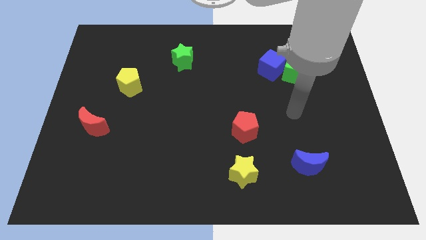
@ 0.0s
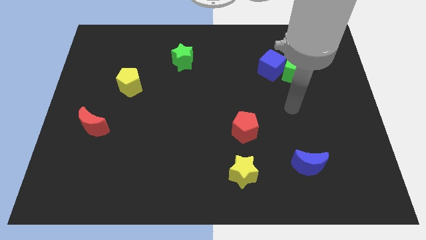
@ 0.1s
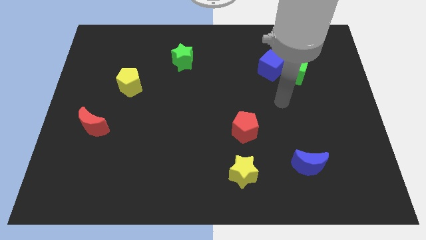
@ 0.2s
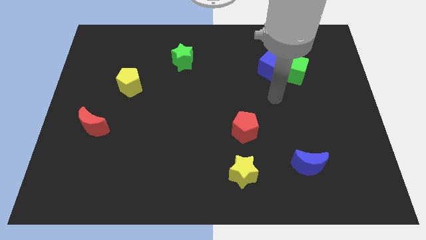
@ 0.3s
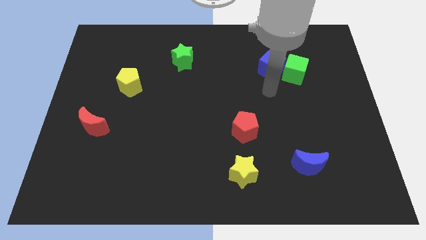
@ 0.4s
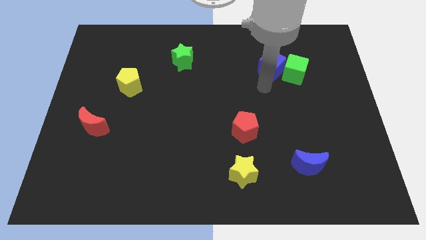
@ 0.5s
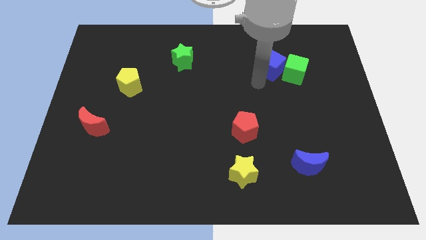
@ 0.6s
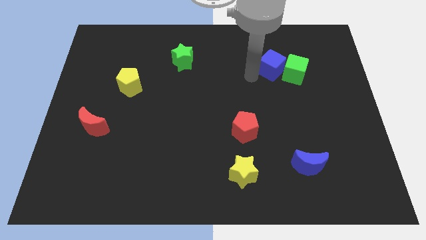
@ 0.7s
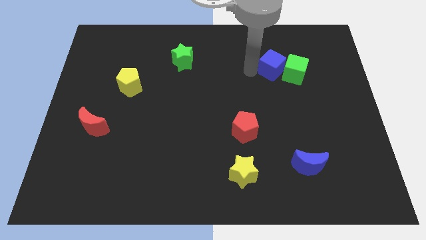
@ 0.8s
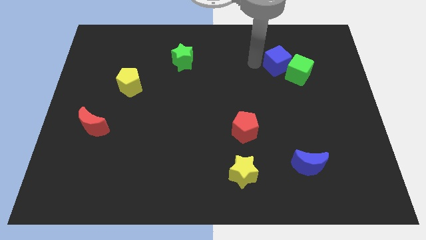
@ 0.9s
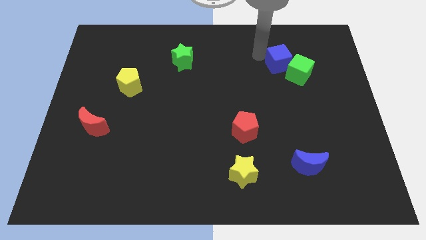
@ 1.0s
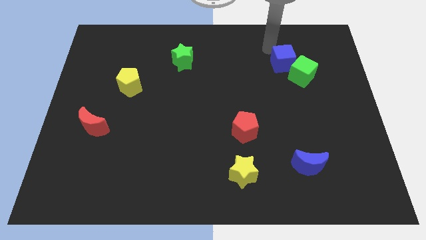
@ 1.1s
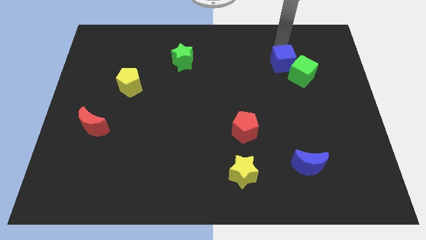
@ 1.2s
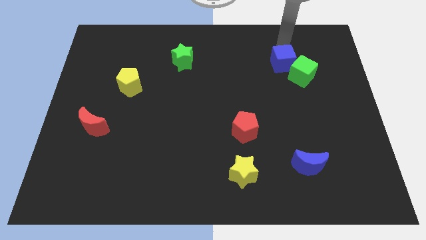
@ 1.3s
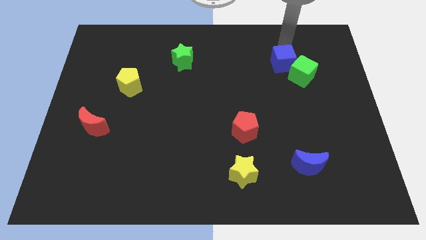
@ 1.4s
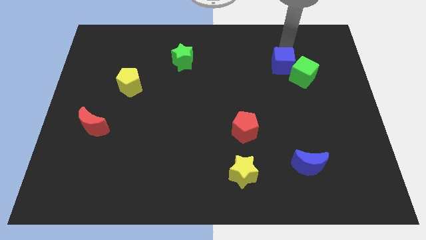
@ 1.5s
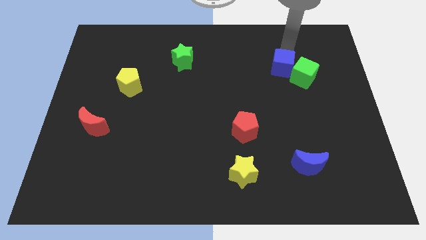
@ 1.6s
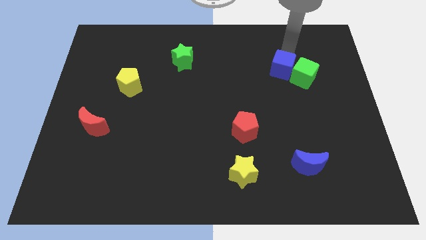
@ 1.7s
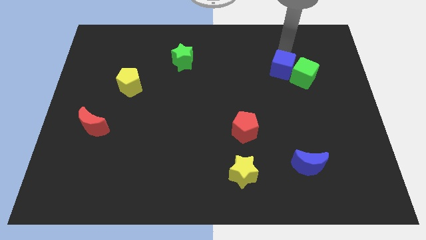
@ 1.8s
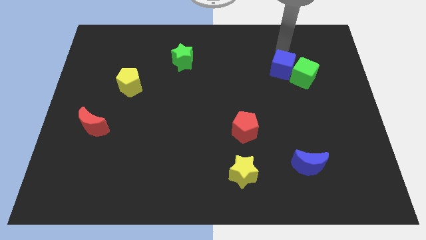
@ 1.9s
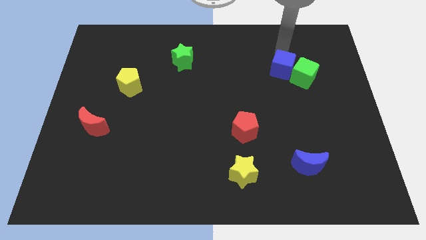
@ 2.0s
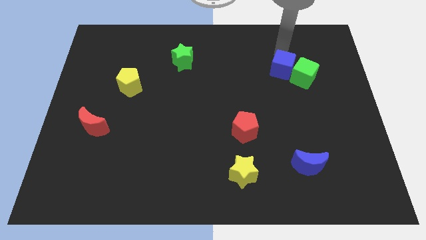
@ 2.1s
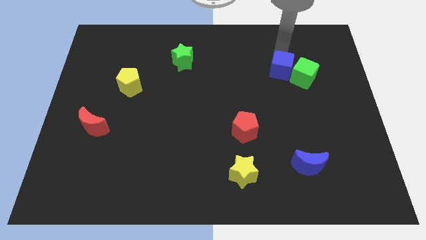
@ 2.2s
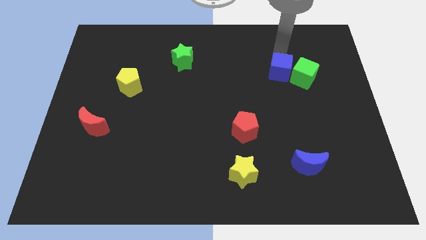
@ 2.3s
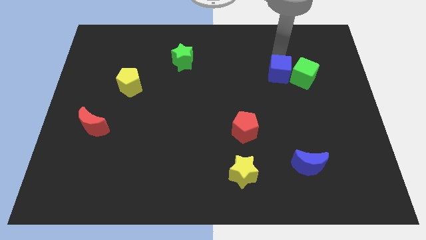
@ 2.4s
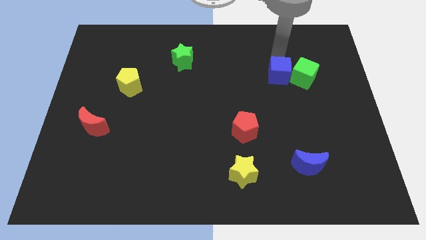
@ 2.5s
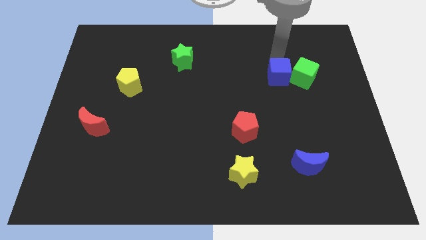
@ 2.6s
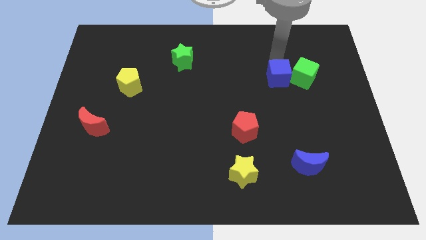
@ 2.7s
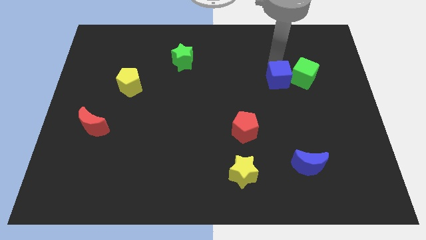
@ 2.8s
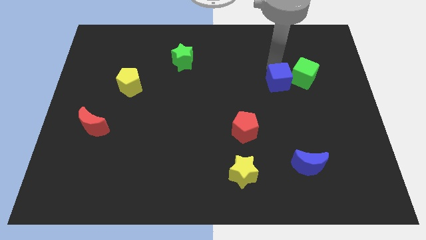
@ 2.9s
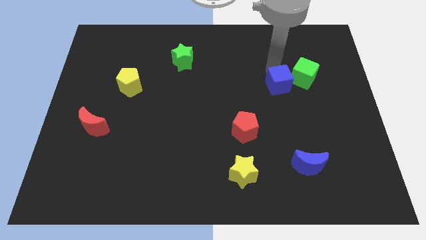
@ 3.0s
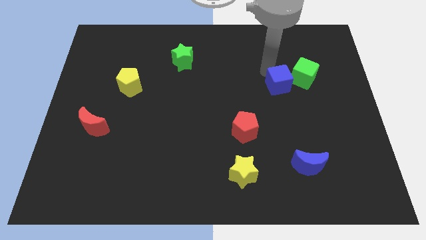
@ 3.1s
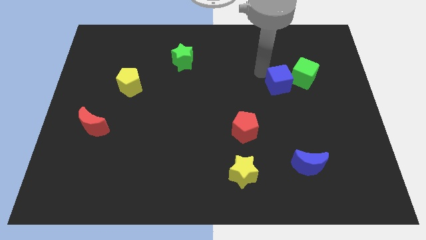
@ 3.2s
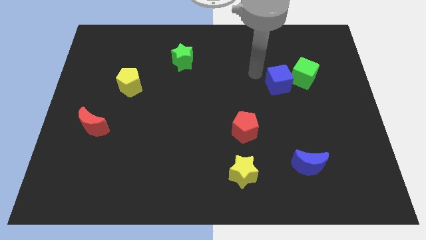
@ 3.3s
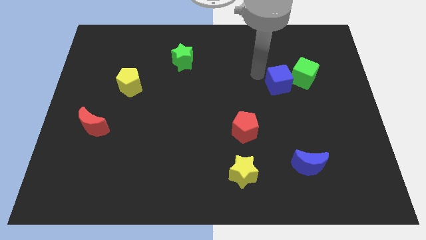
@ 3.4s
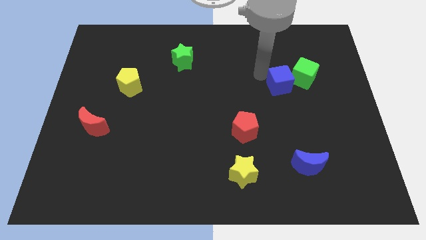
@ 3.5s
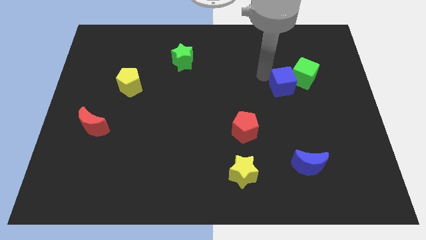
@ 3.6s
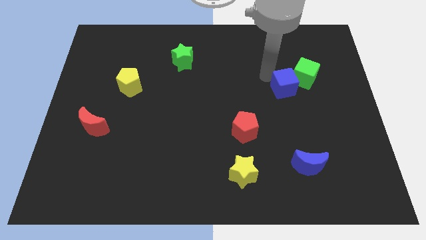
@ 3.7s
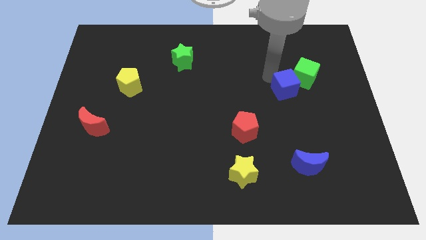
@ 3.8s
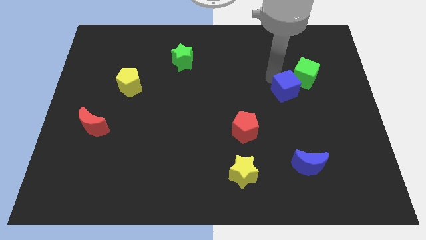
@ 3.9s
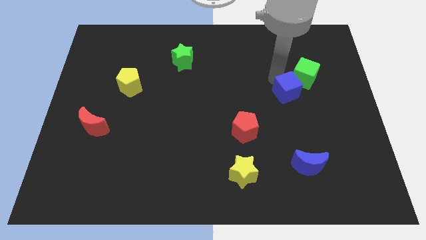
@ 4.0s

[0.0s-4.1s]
move the blue cube a little bit downwards and then right

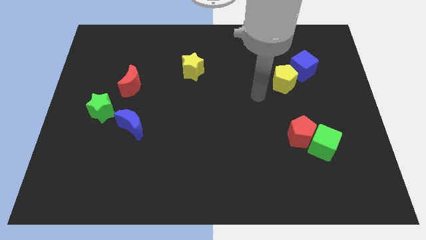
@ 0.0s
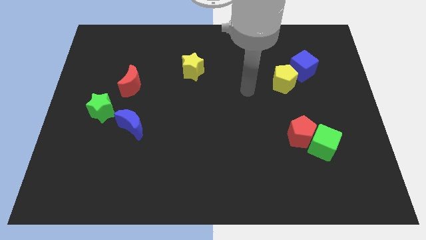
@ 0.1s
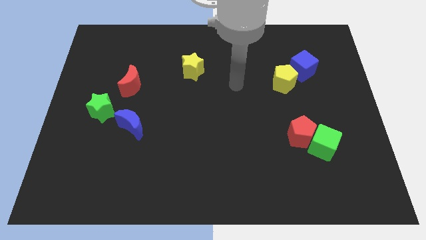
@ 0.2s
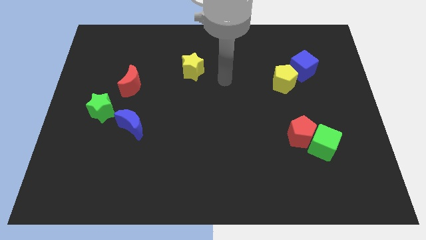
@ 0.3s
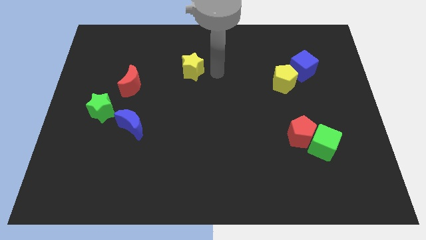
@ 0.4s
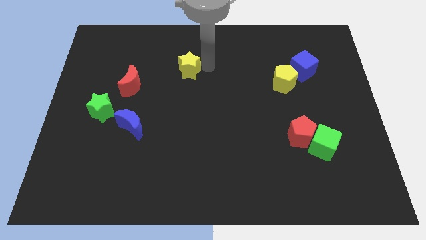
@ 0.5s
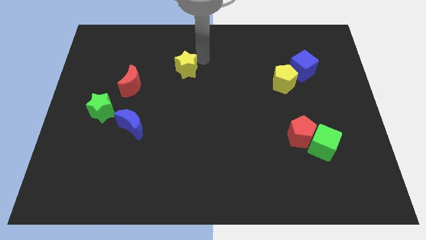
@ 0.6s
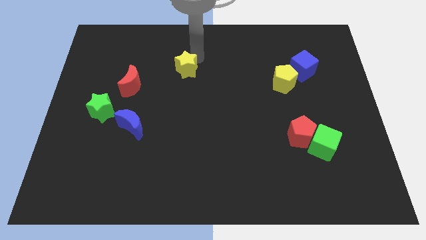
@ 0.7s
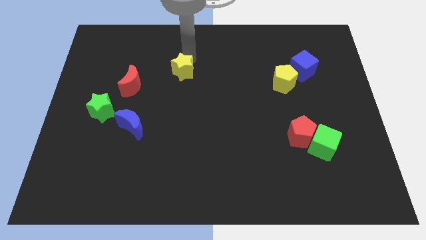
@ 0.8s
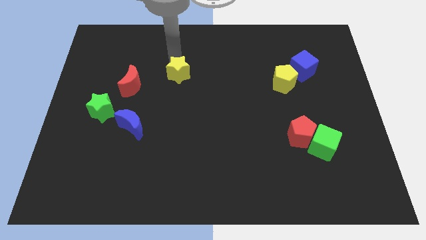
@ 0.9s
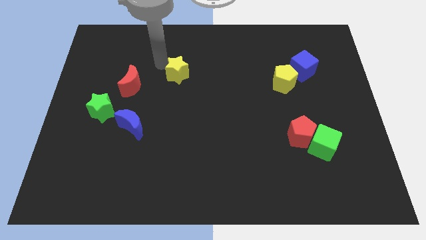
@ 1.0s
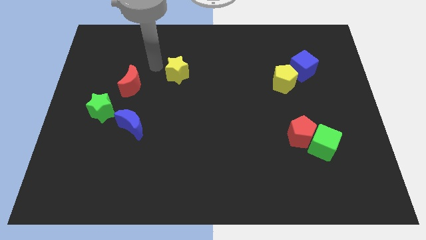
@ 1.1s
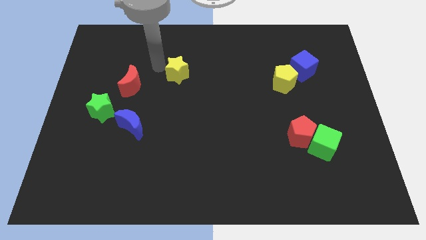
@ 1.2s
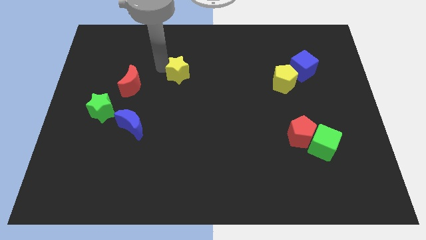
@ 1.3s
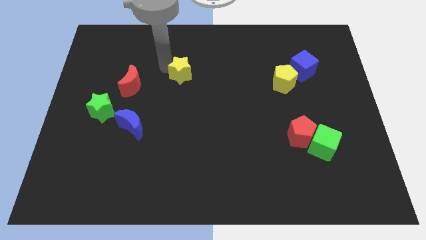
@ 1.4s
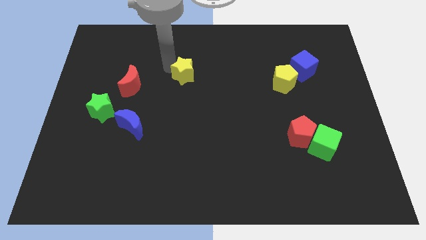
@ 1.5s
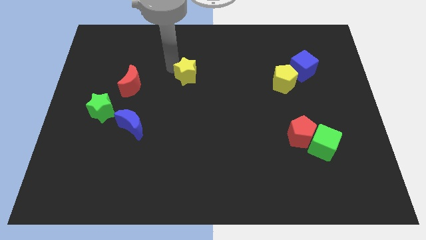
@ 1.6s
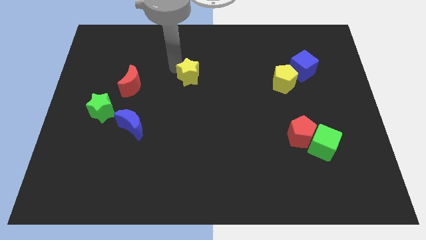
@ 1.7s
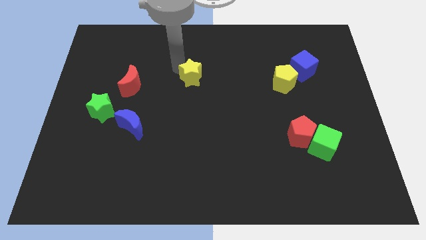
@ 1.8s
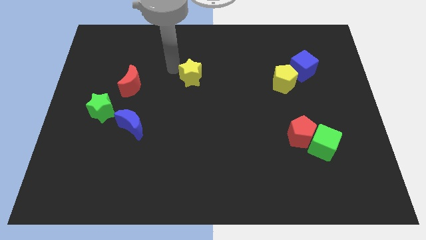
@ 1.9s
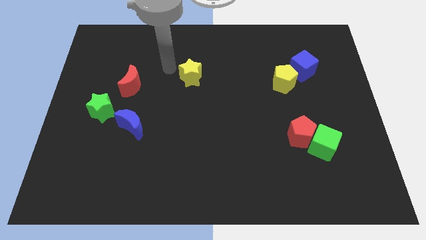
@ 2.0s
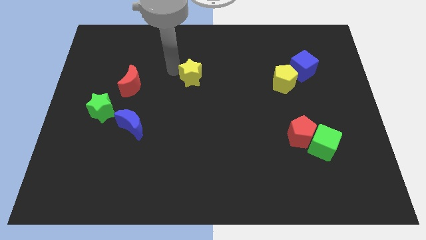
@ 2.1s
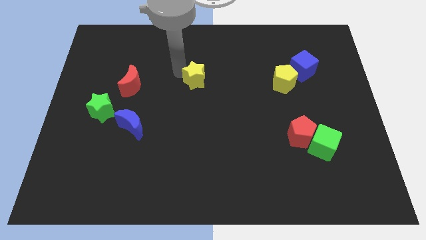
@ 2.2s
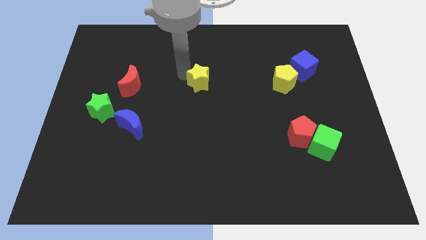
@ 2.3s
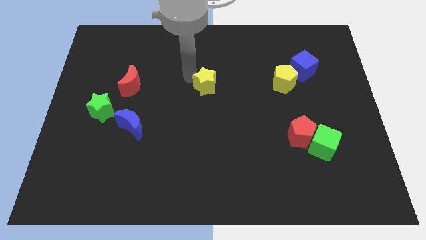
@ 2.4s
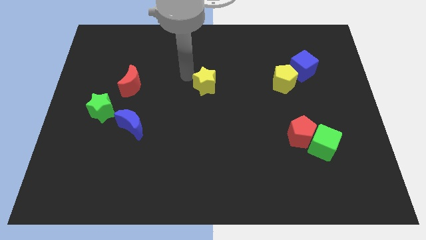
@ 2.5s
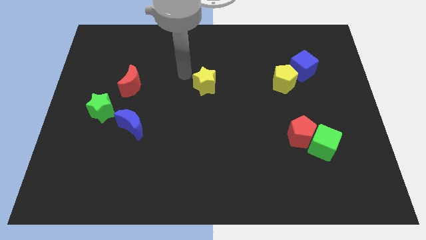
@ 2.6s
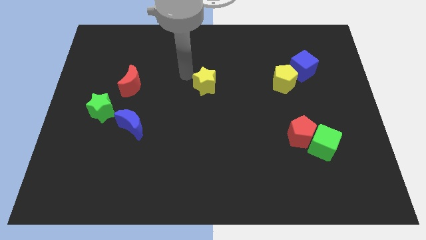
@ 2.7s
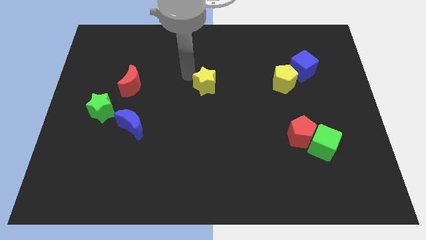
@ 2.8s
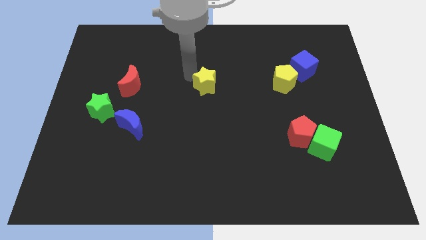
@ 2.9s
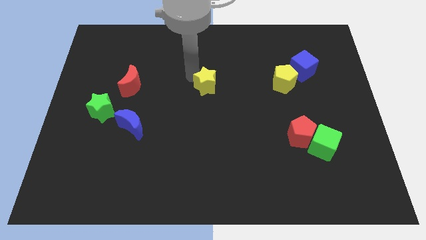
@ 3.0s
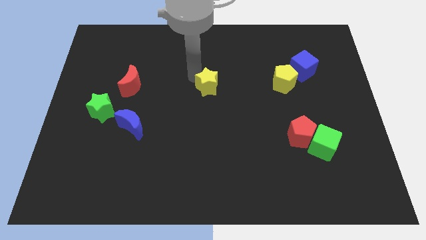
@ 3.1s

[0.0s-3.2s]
slightly move the yellow star diagonally downwards and to the right

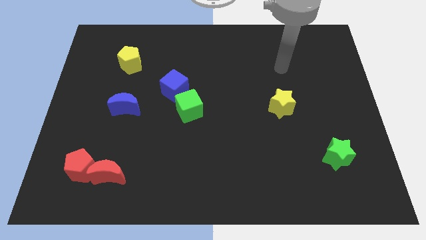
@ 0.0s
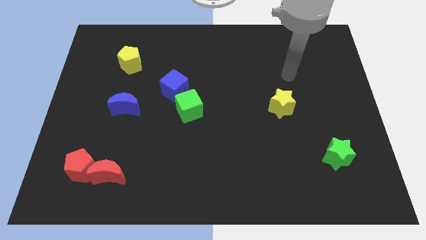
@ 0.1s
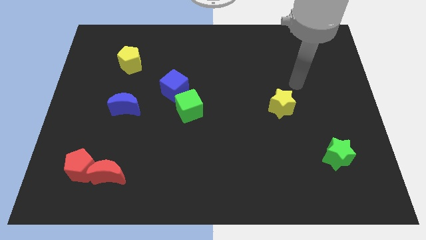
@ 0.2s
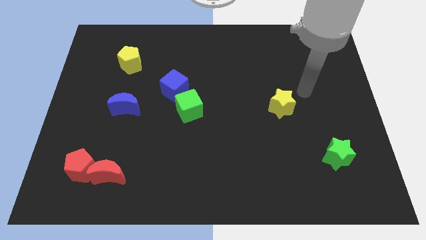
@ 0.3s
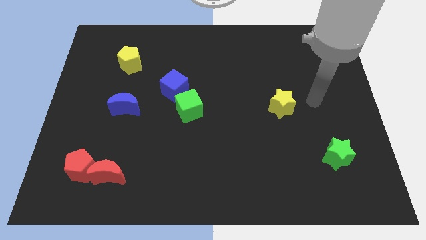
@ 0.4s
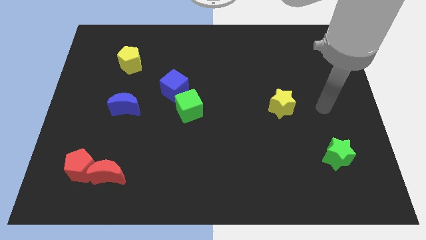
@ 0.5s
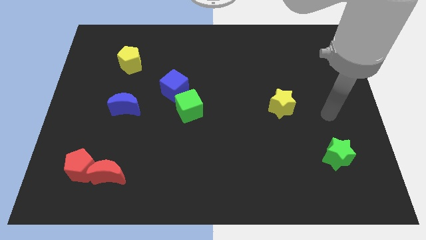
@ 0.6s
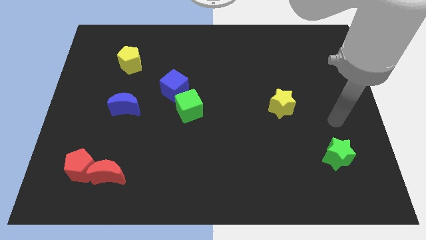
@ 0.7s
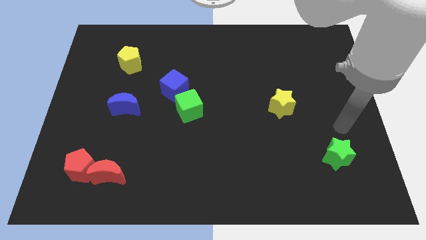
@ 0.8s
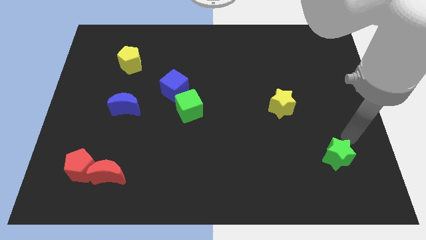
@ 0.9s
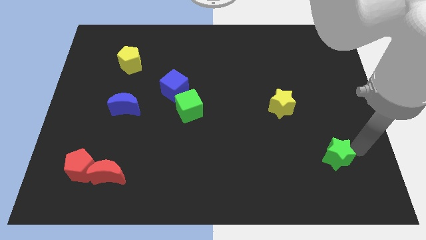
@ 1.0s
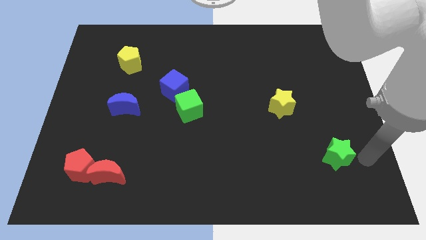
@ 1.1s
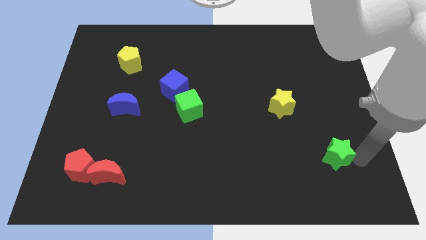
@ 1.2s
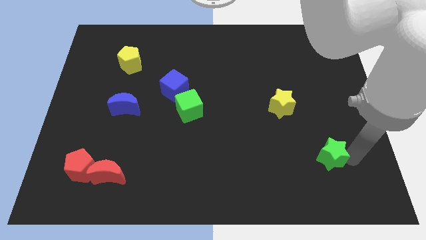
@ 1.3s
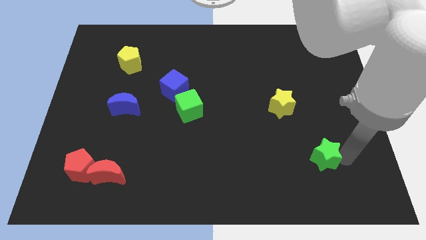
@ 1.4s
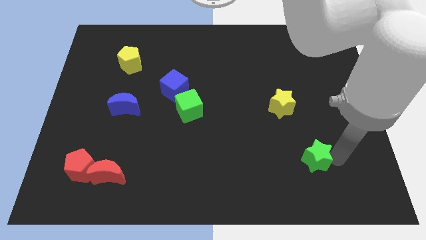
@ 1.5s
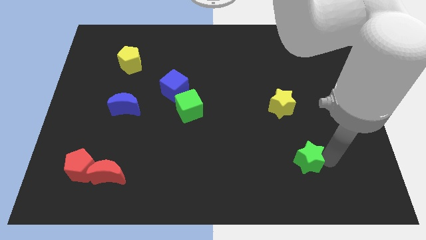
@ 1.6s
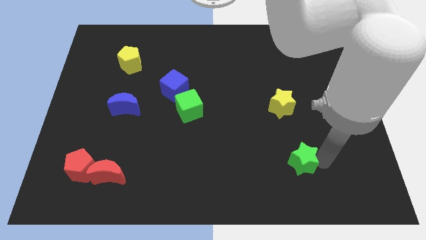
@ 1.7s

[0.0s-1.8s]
slide the green star to the left a bit
